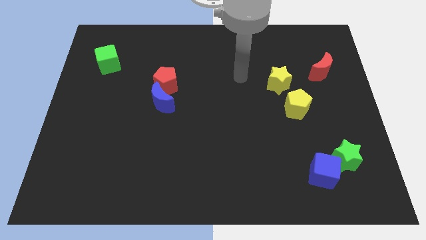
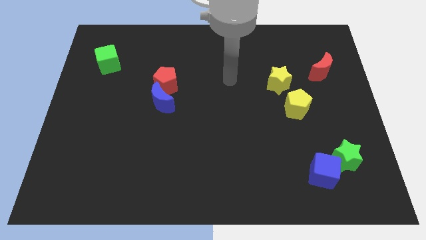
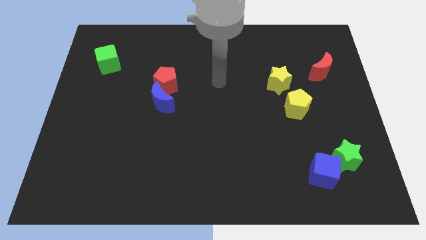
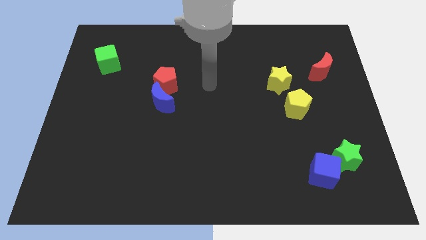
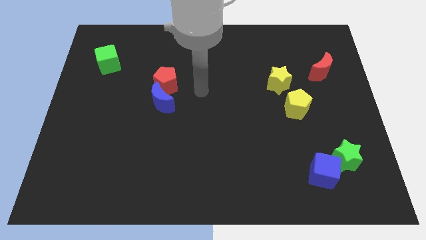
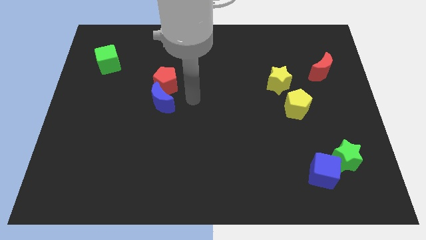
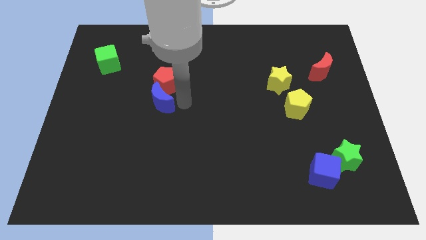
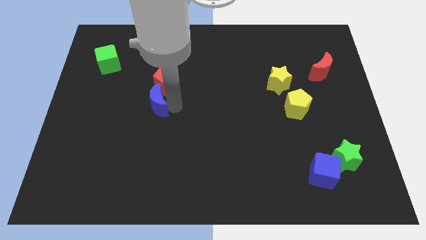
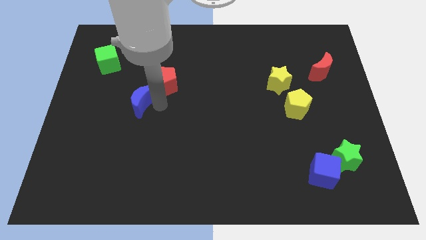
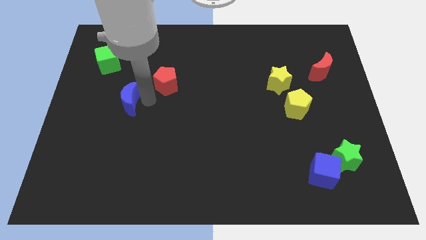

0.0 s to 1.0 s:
pull the red pentagon apart from the blue moon

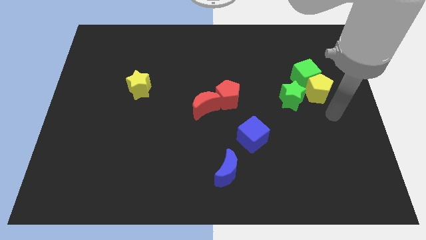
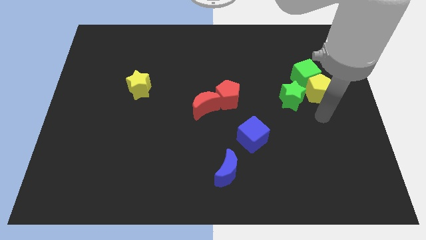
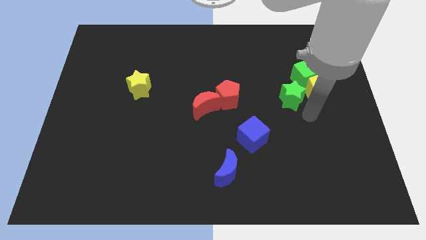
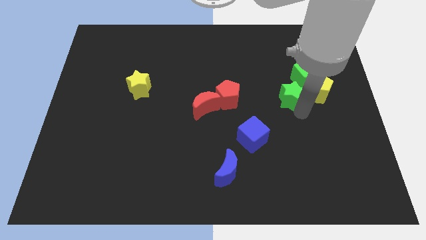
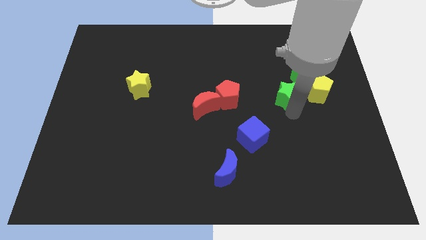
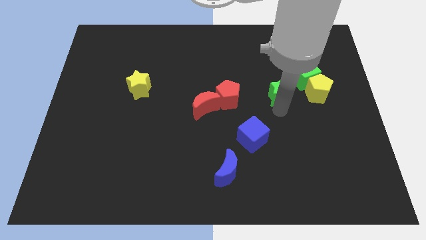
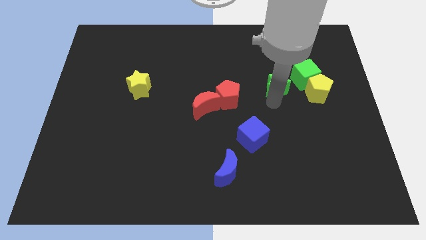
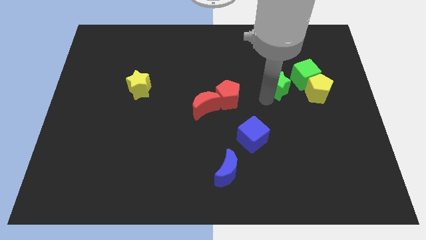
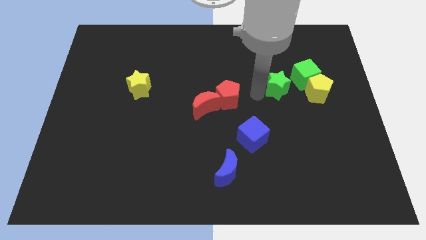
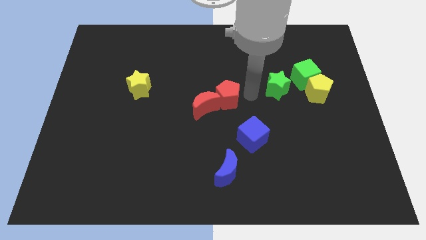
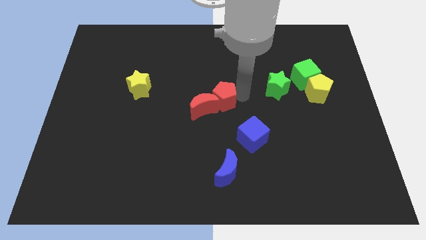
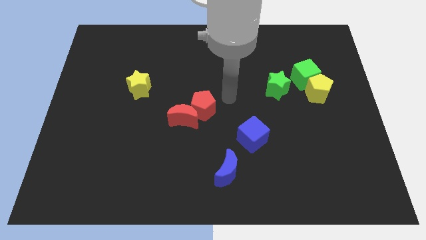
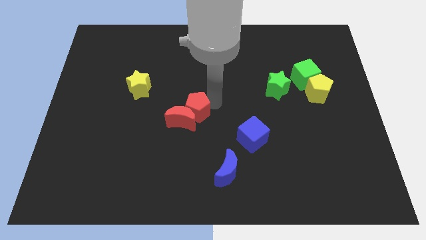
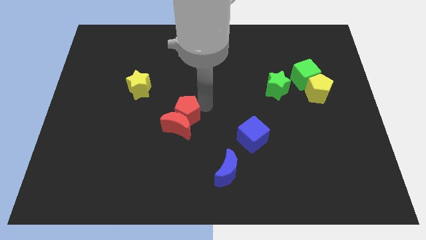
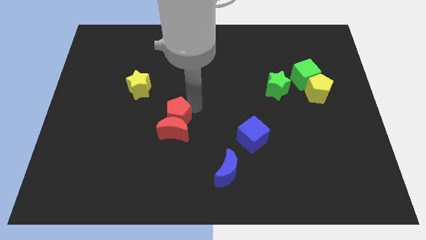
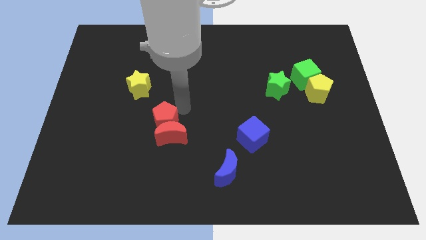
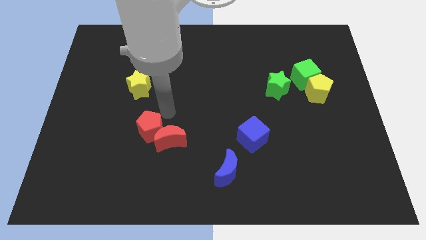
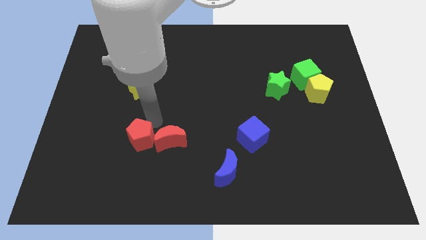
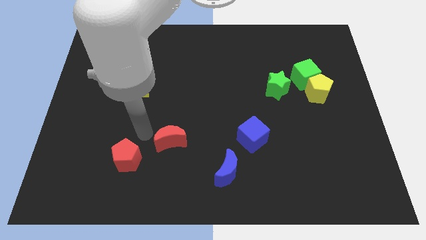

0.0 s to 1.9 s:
separate the red moon from the red pentagon

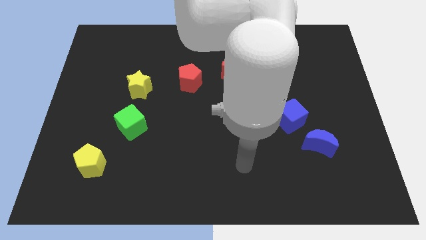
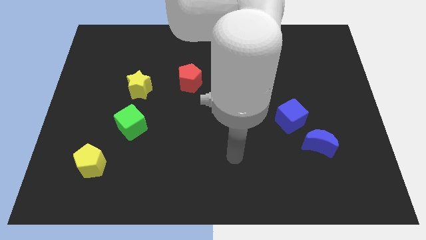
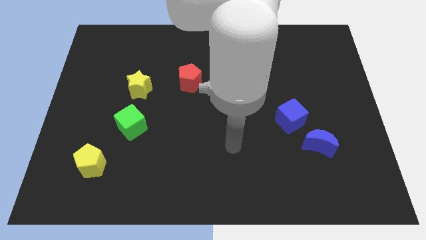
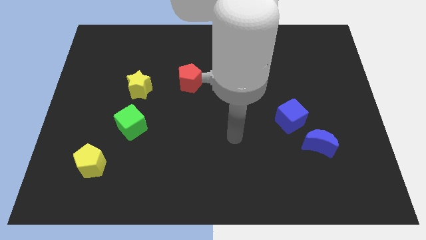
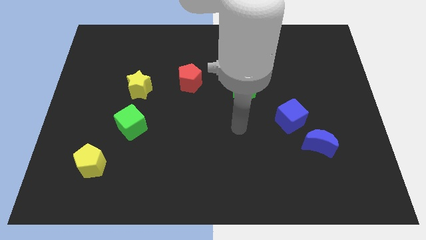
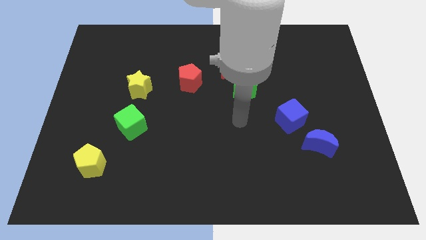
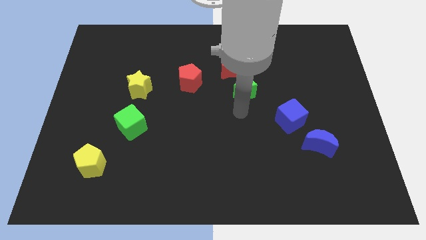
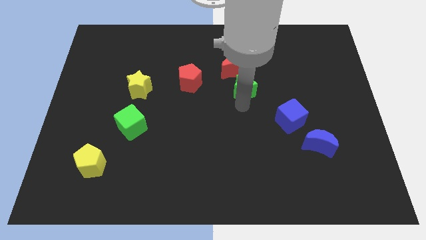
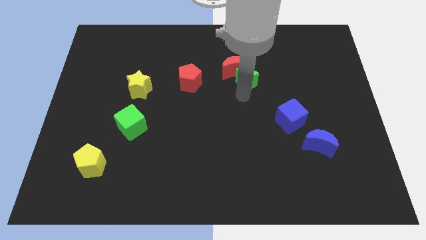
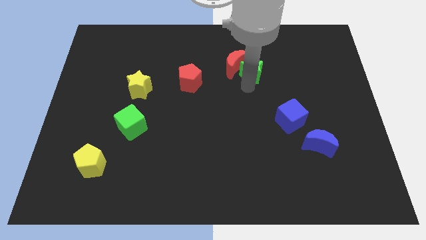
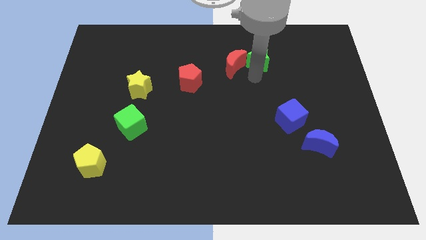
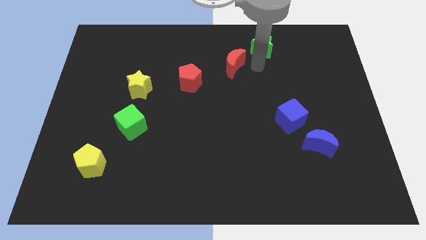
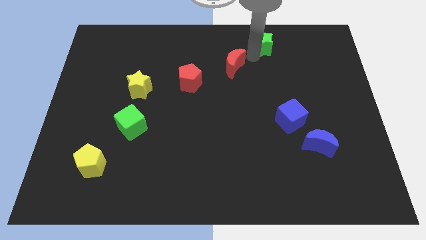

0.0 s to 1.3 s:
pull the red moon apart from the green star

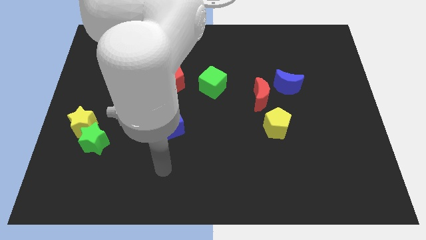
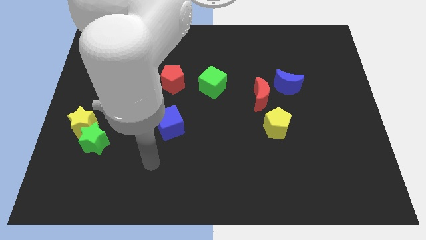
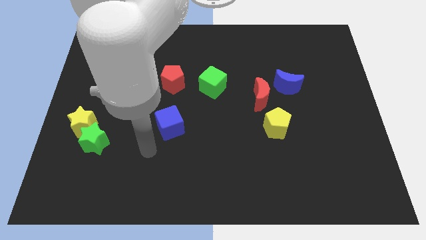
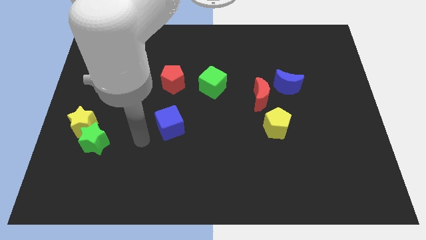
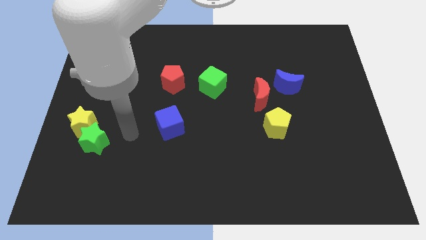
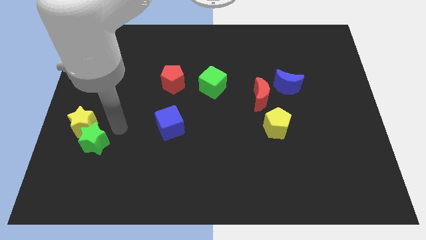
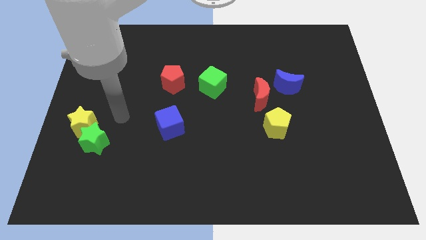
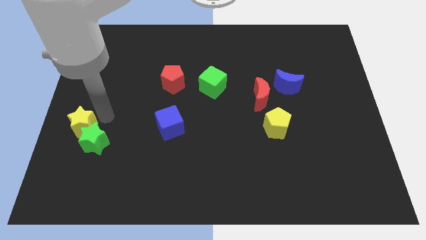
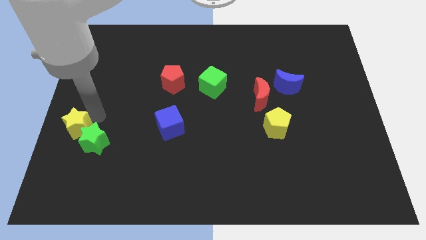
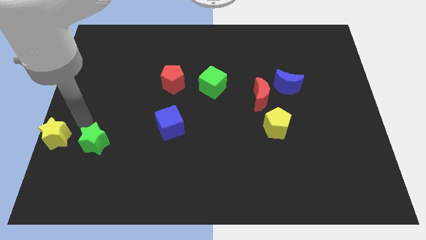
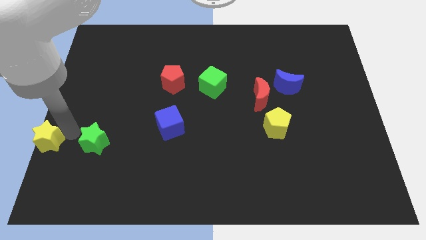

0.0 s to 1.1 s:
pull the green star apart from the yellow star

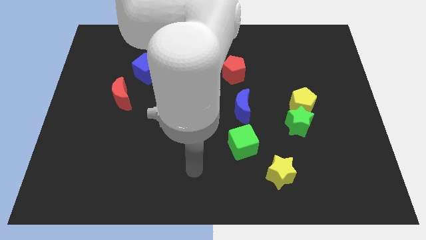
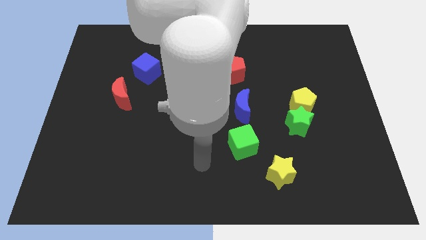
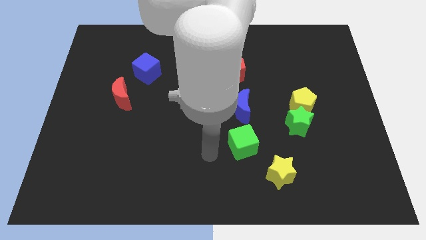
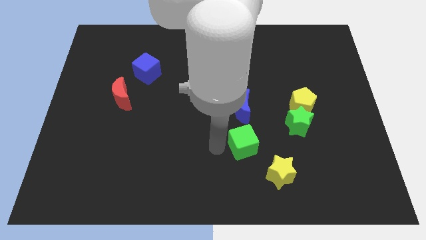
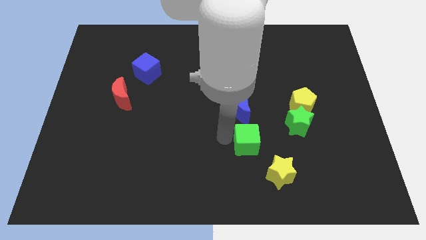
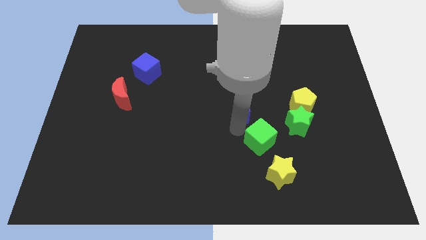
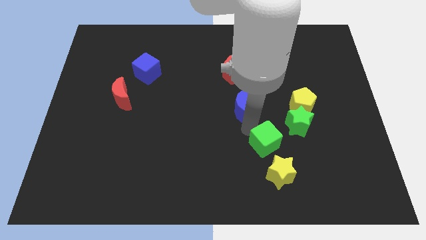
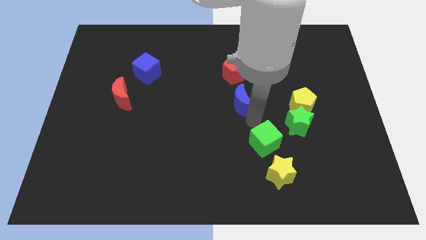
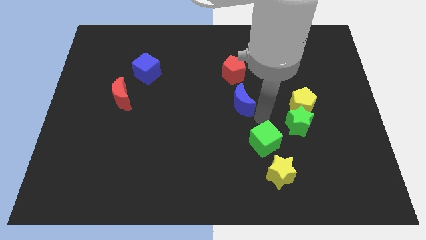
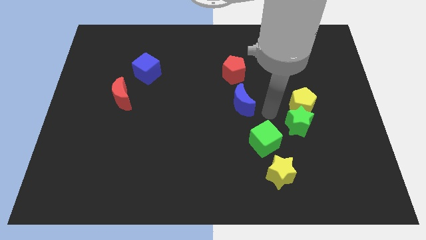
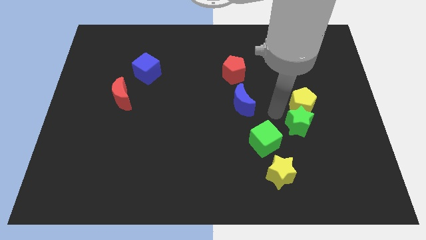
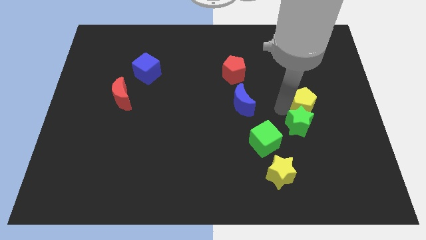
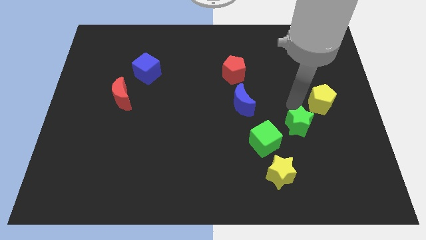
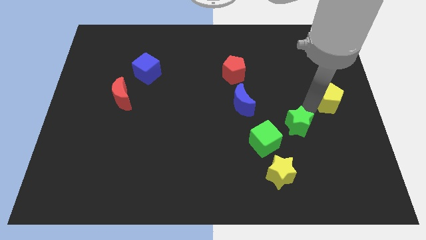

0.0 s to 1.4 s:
pull the green star apart from the yellow pentagon

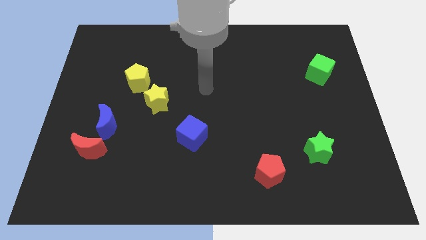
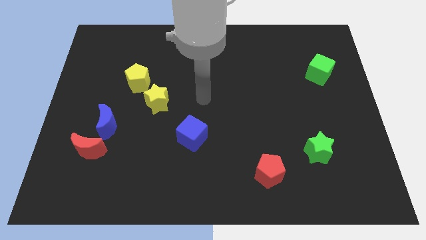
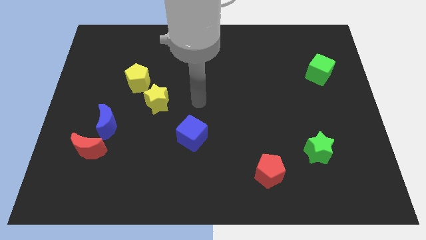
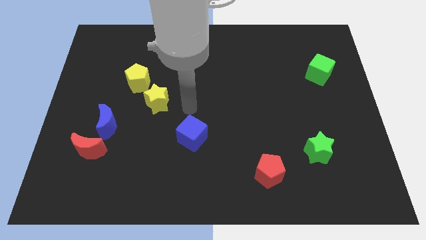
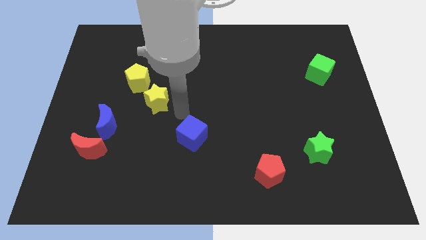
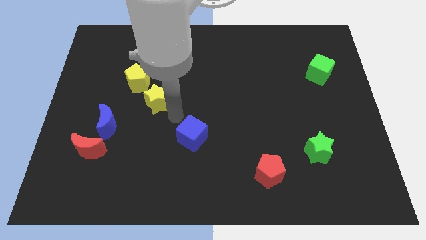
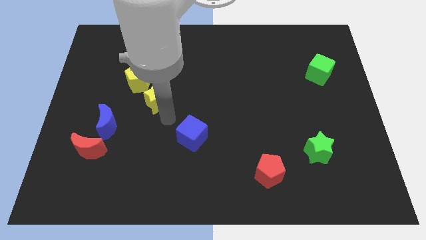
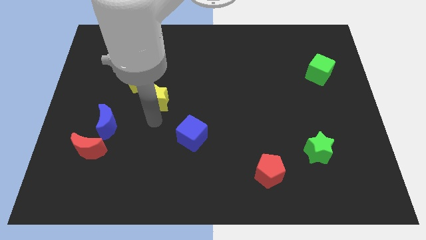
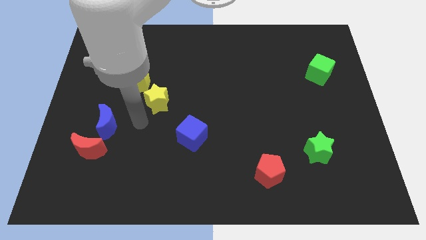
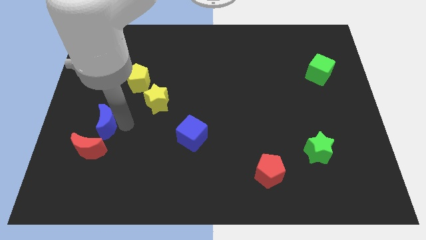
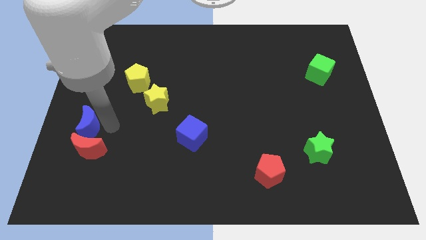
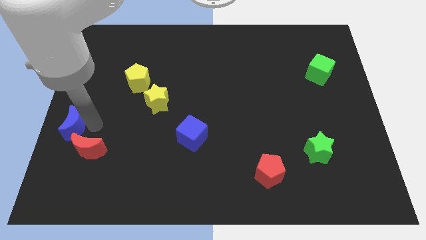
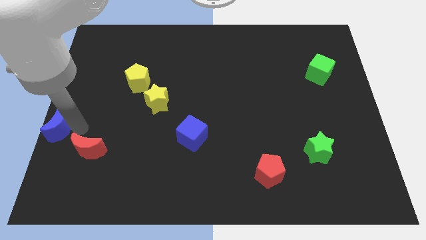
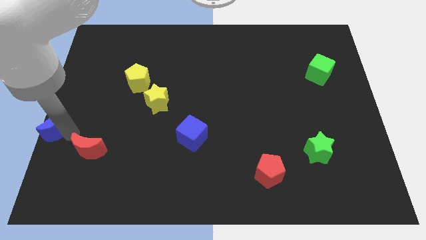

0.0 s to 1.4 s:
separate the red moon from the blue moon

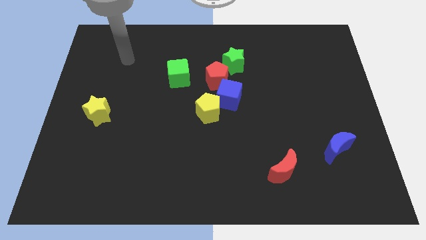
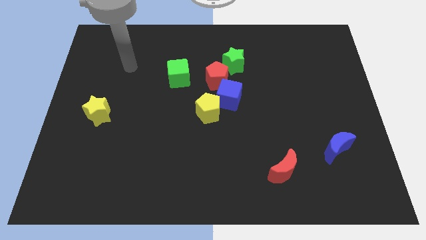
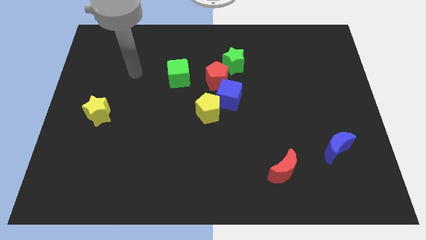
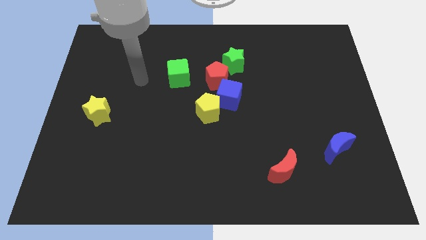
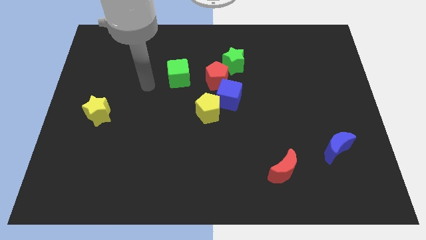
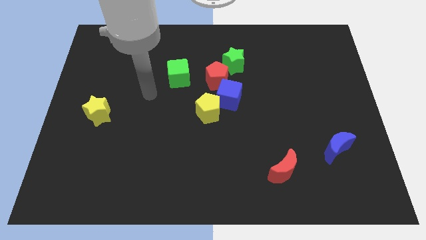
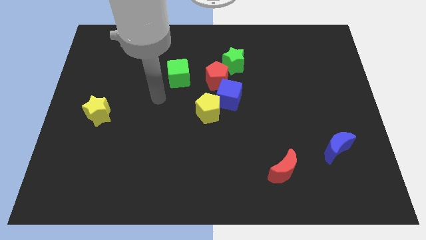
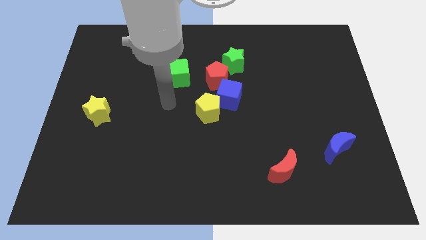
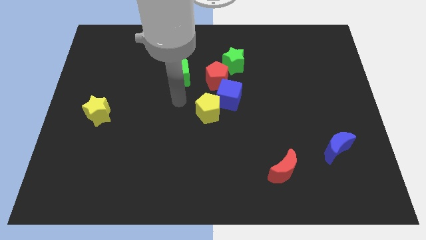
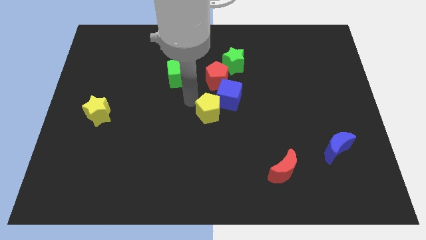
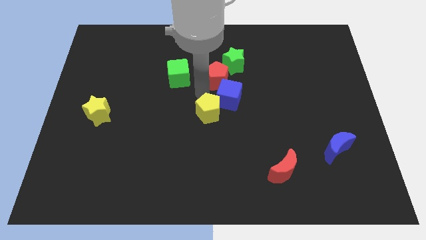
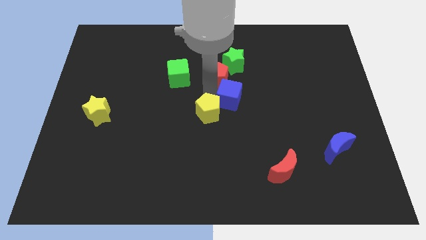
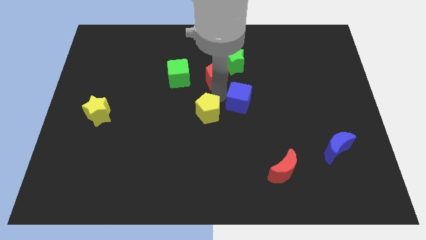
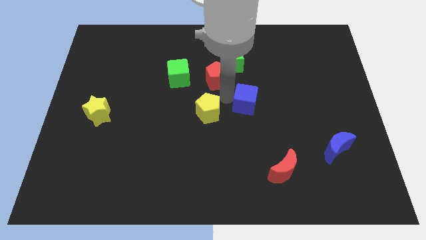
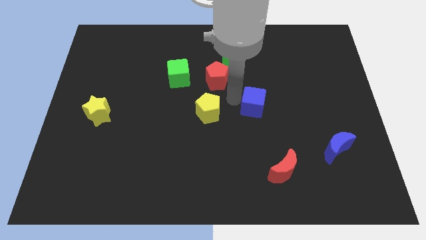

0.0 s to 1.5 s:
move the blue cube away from the yellow pentagon and red pentagon
